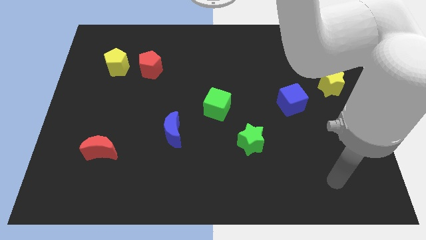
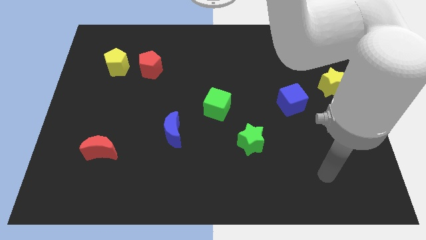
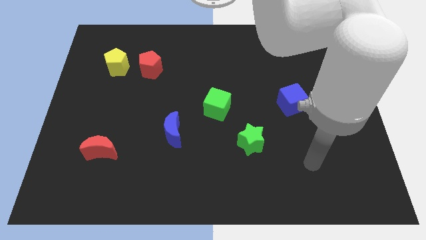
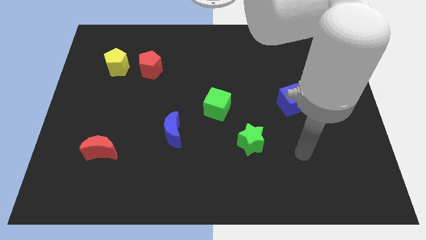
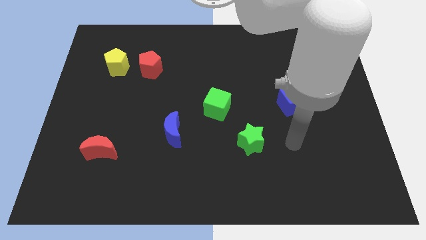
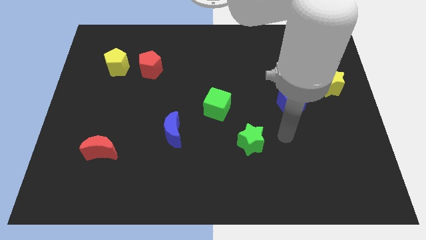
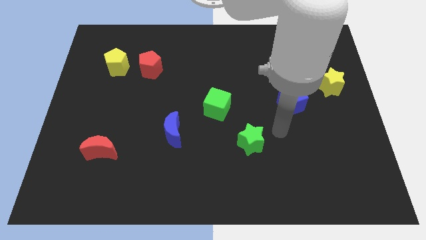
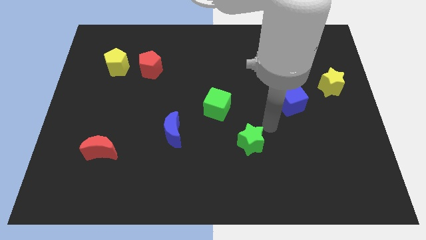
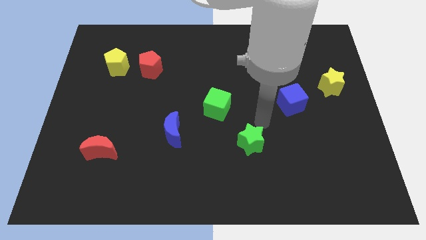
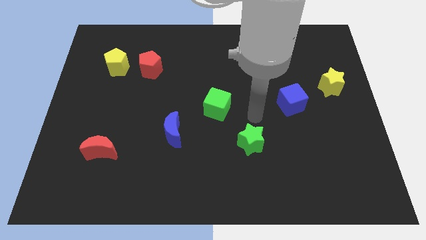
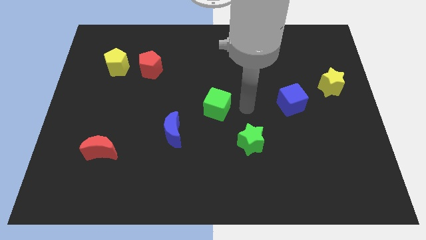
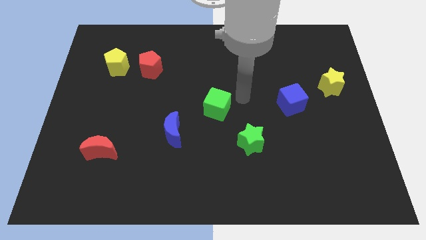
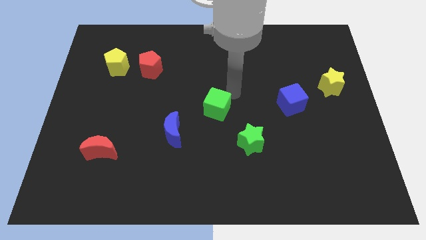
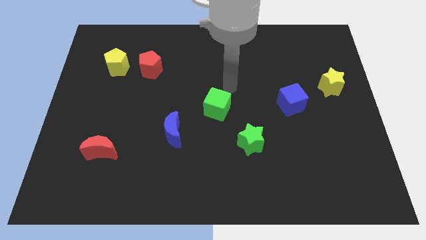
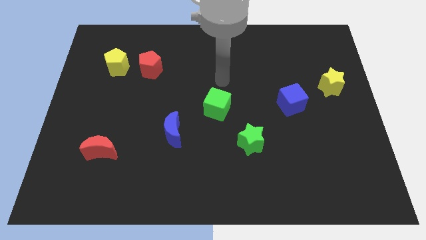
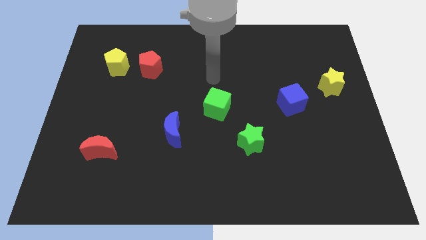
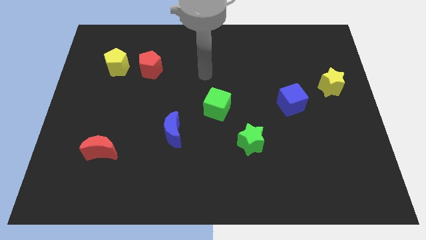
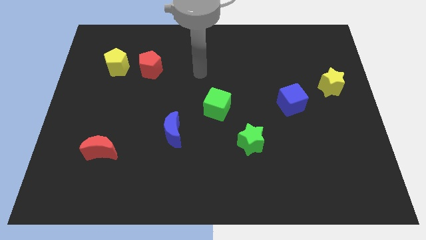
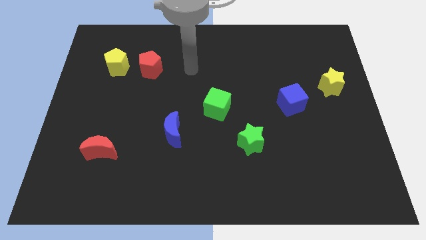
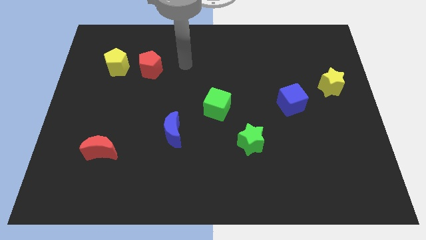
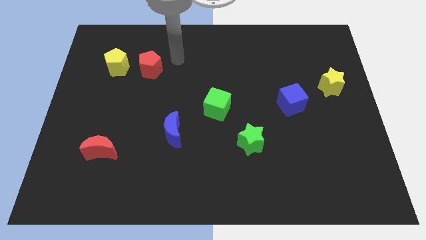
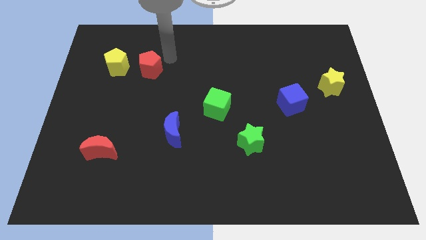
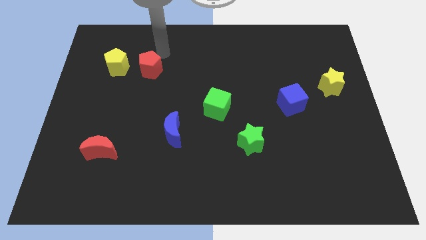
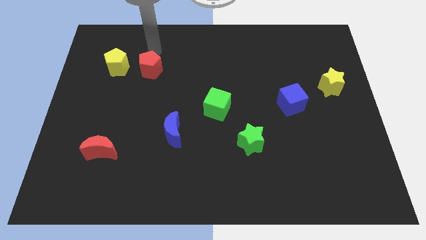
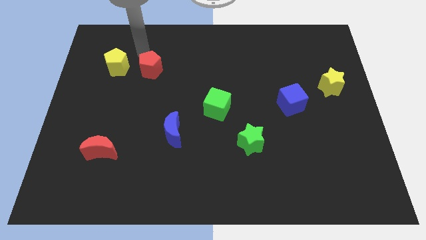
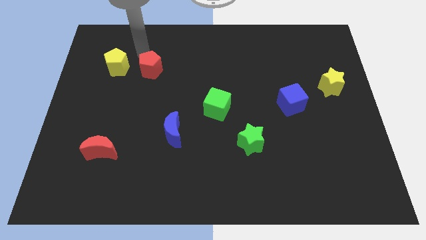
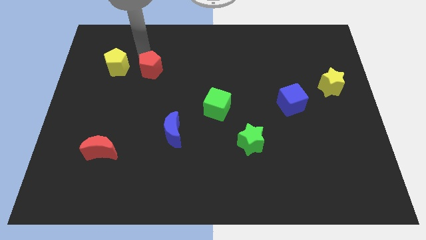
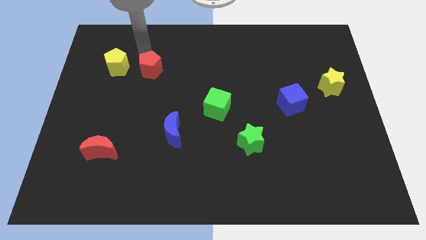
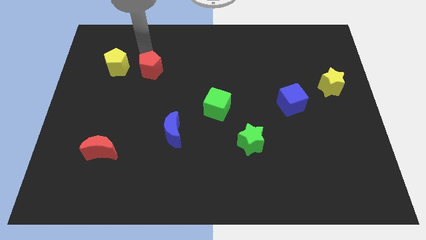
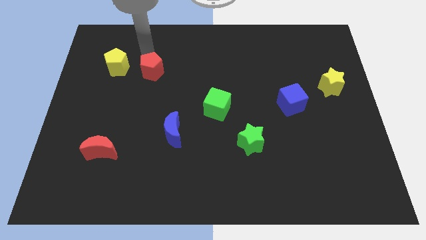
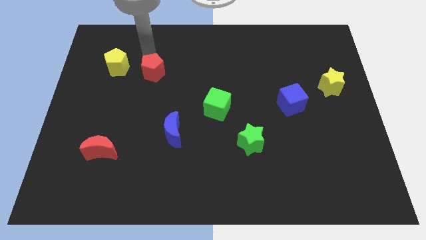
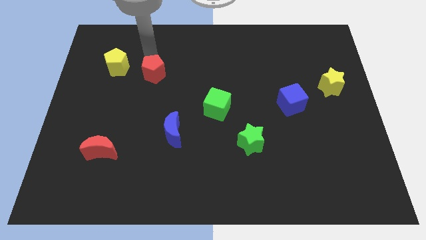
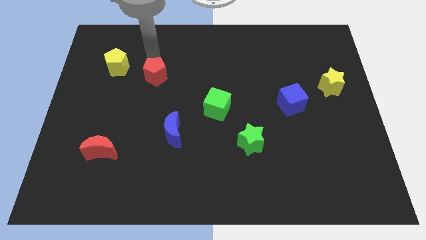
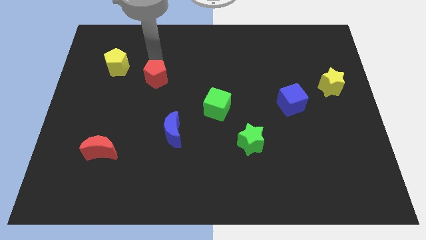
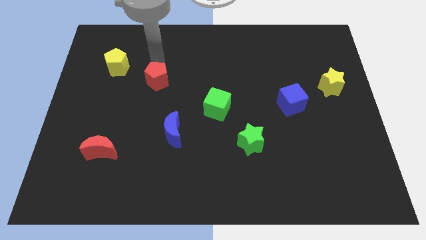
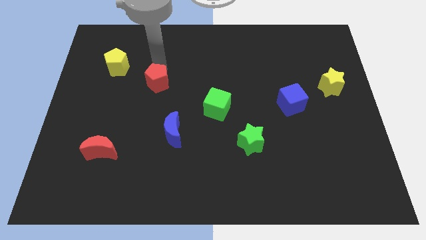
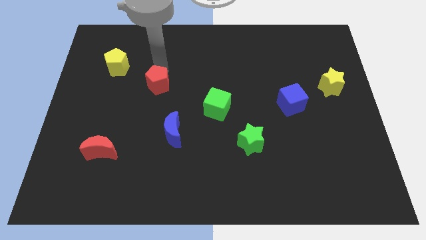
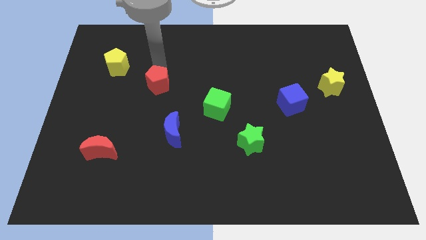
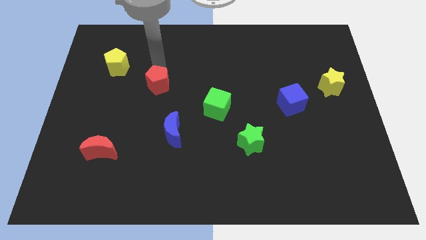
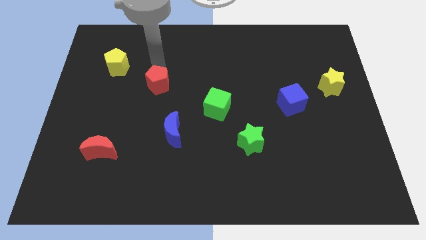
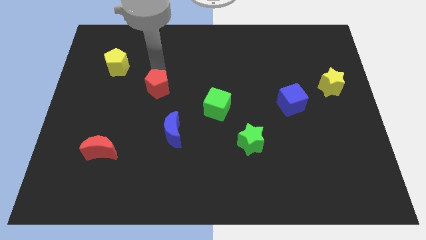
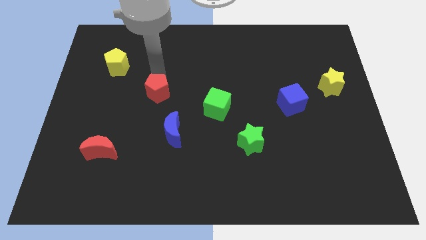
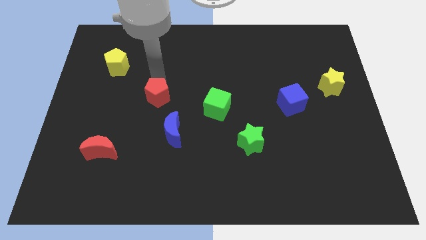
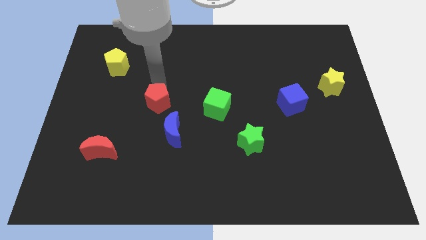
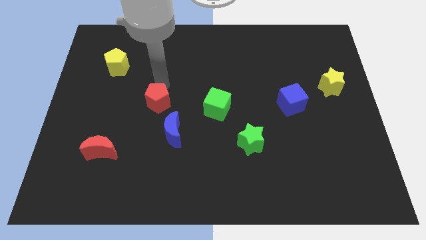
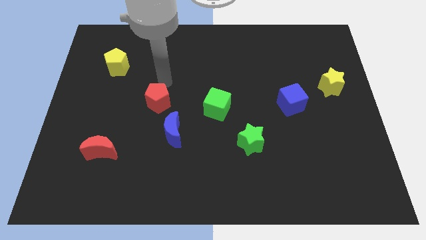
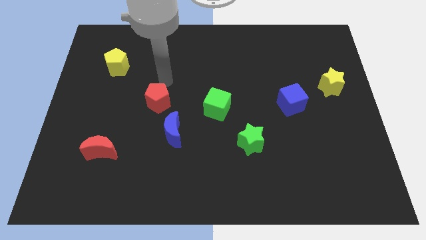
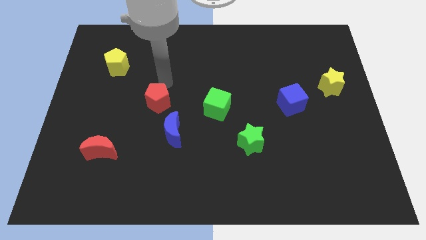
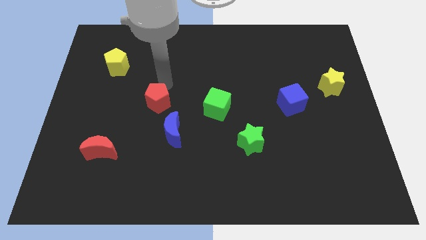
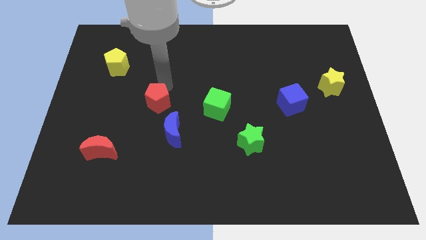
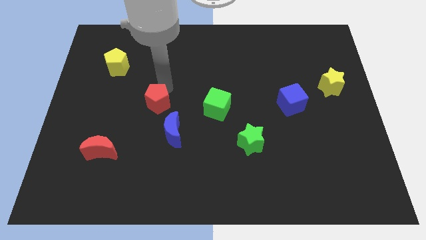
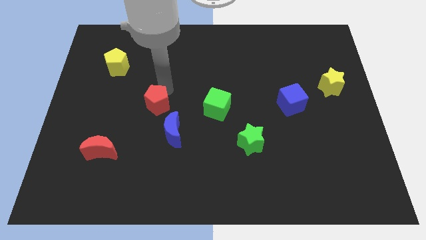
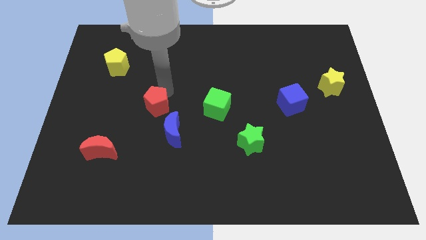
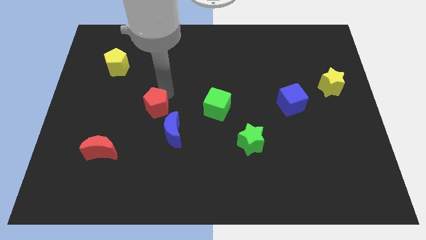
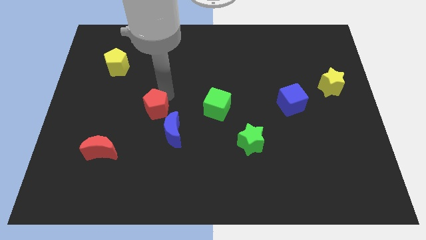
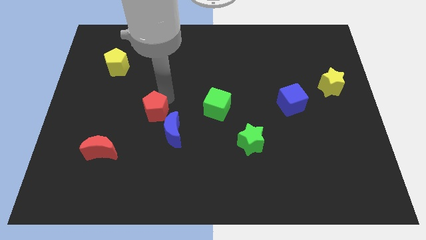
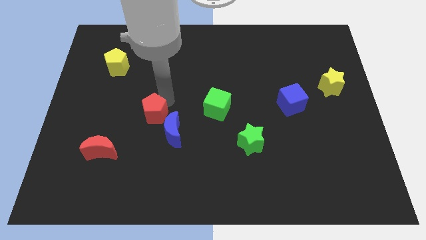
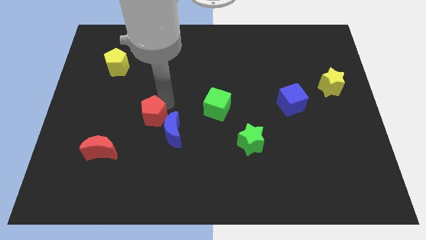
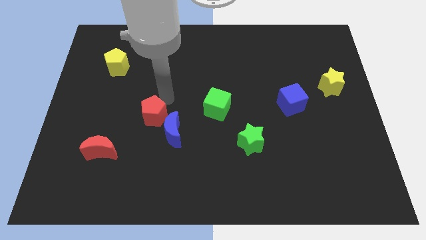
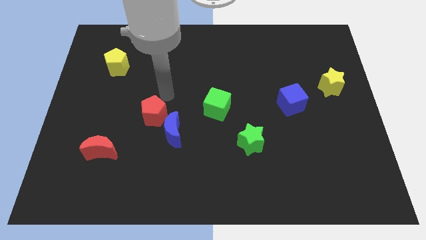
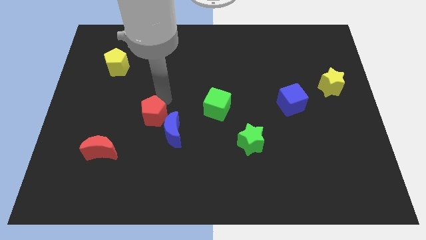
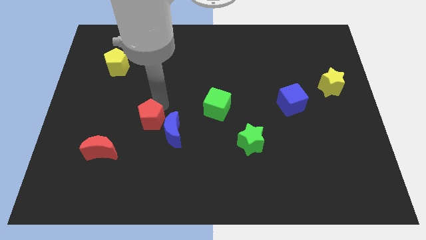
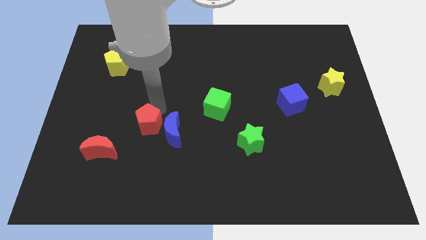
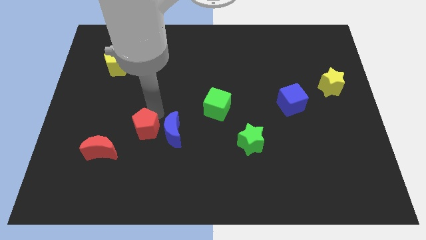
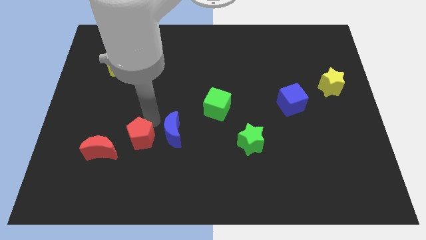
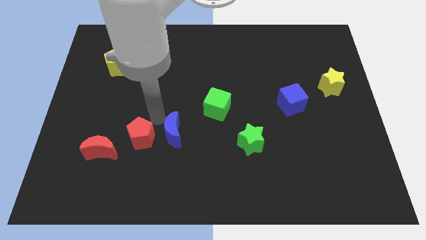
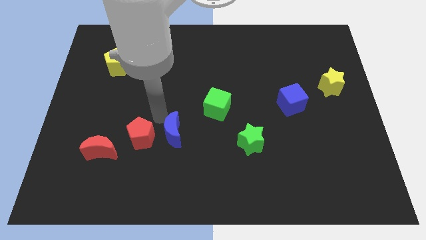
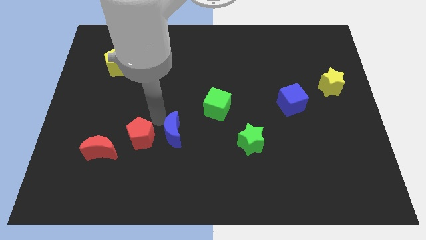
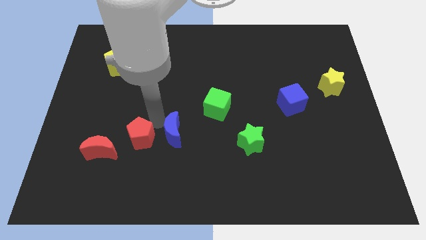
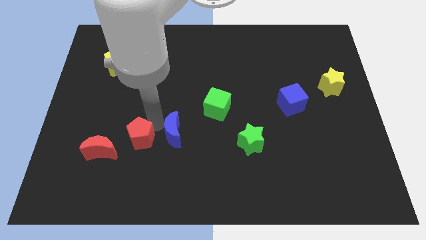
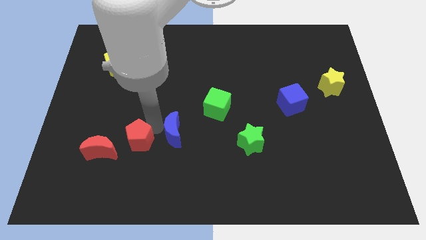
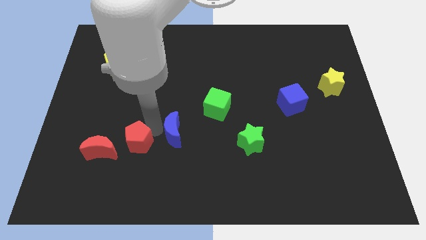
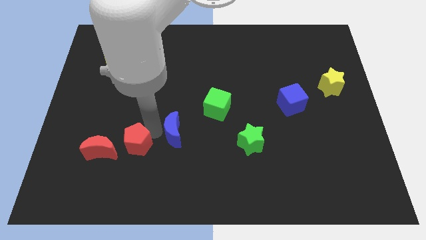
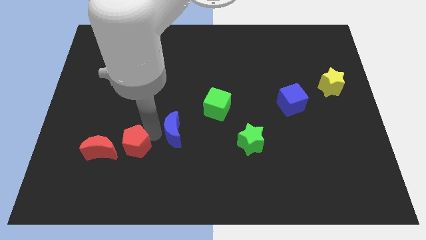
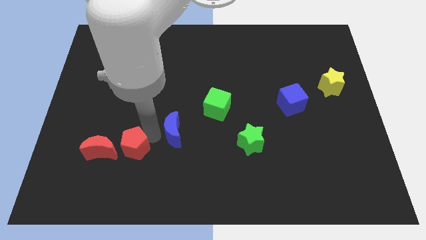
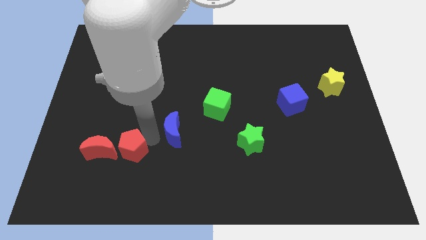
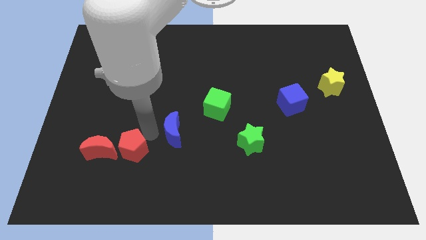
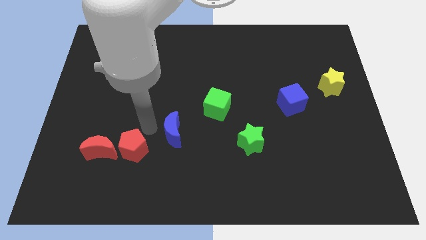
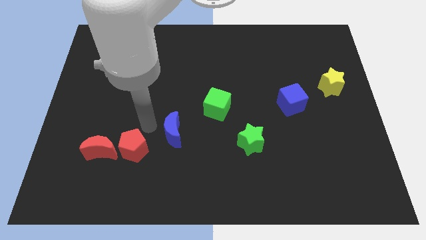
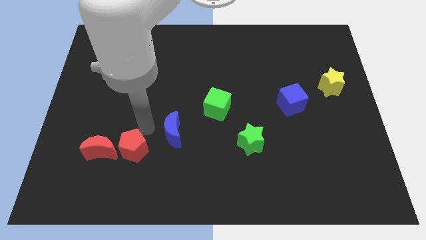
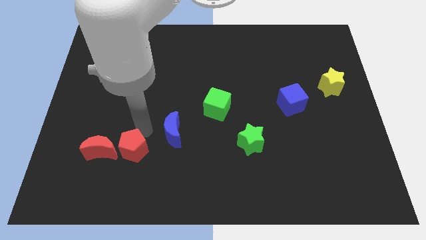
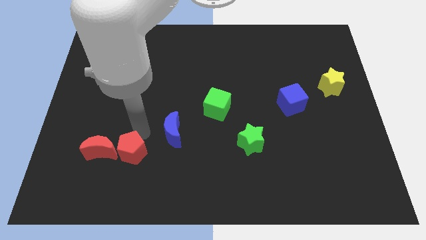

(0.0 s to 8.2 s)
push the red pentagon to the bottom right side of the red moon
